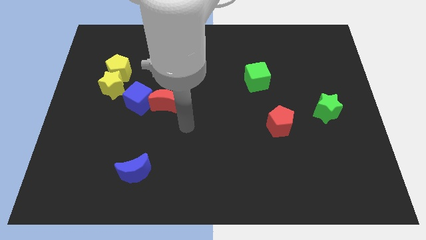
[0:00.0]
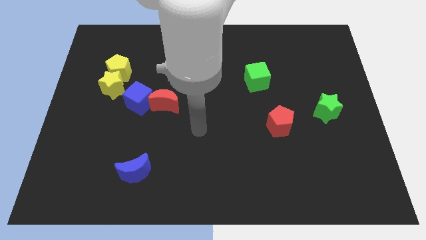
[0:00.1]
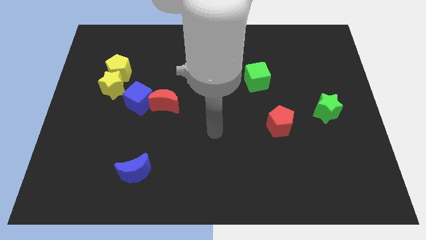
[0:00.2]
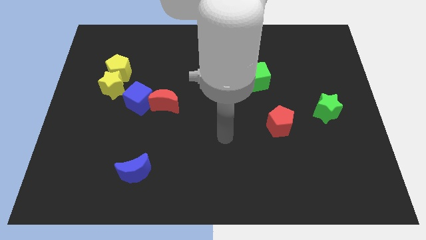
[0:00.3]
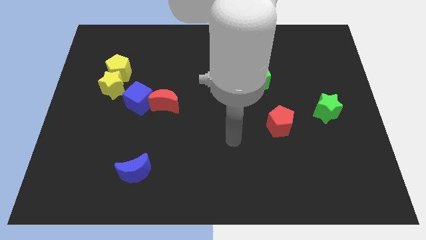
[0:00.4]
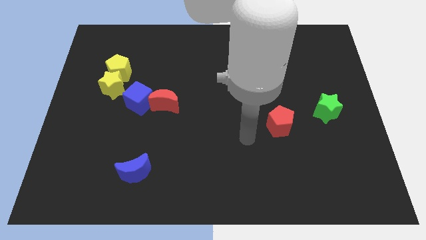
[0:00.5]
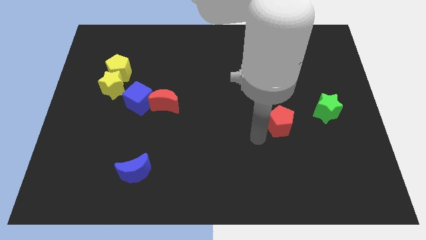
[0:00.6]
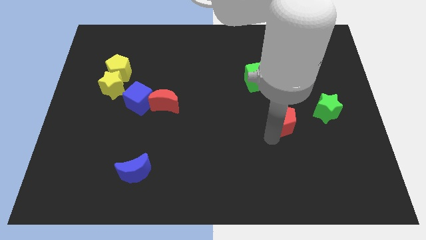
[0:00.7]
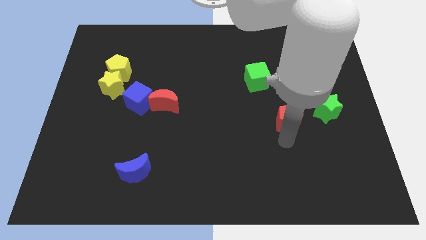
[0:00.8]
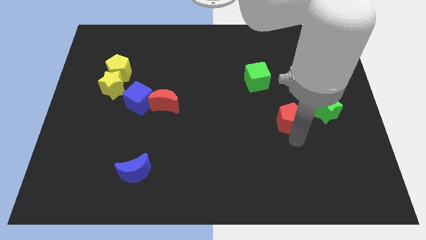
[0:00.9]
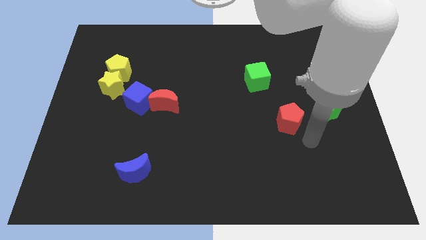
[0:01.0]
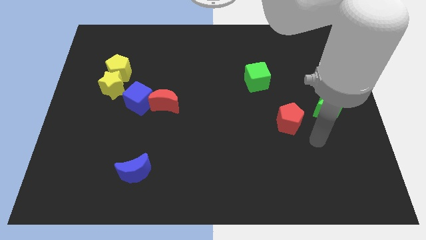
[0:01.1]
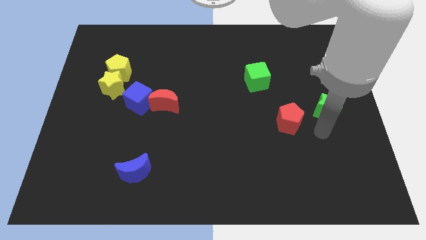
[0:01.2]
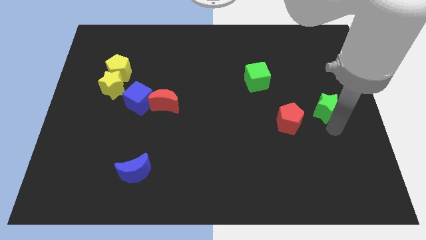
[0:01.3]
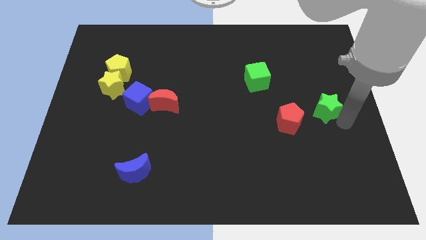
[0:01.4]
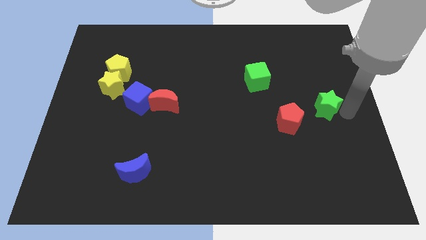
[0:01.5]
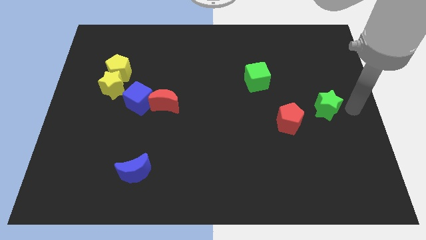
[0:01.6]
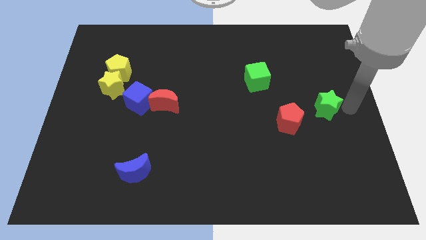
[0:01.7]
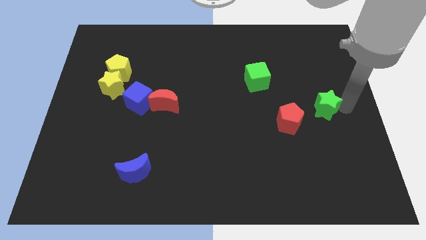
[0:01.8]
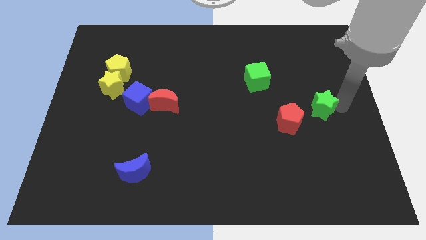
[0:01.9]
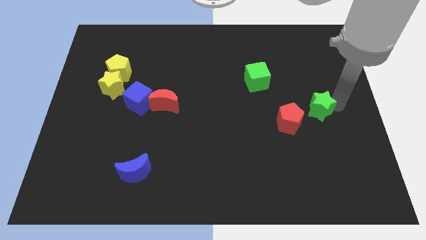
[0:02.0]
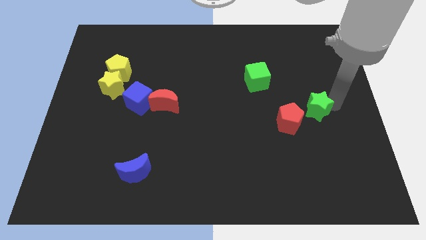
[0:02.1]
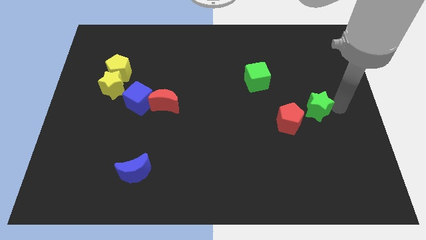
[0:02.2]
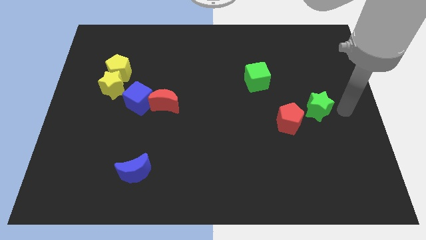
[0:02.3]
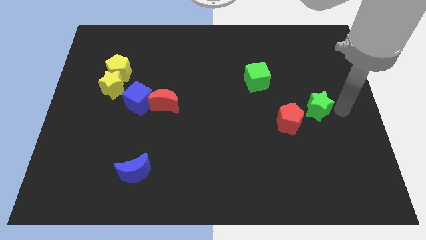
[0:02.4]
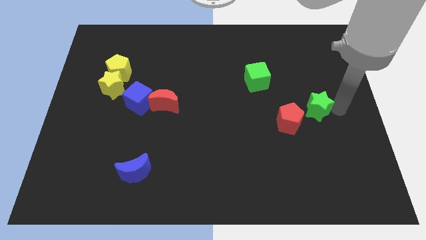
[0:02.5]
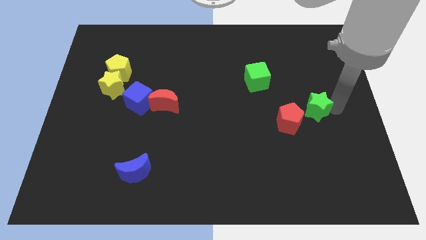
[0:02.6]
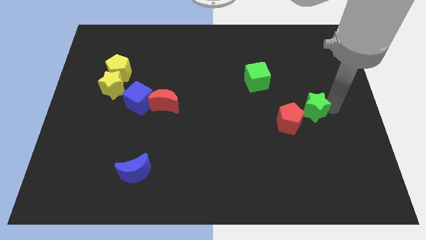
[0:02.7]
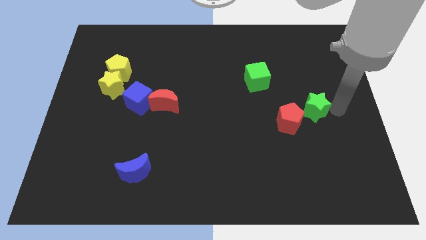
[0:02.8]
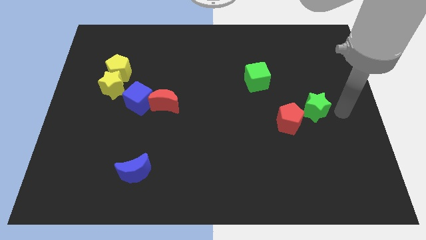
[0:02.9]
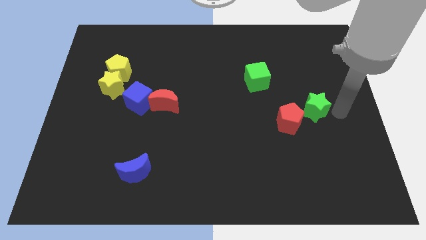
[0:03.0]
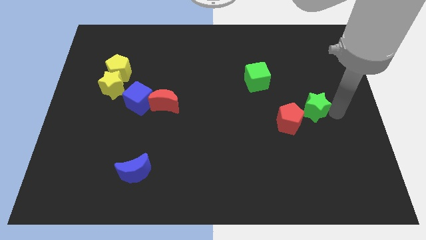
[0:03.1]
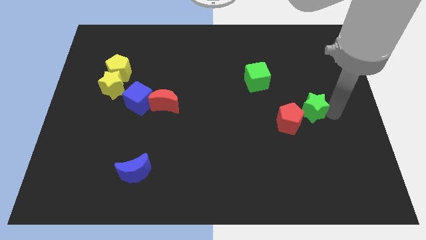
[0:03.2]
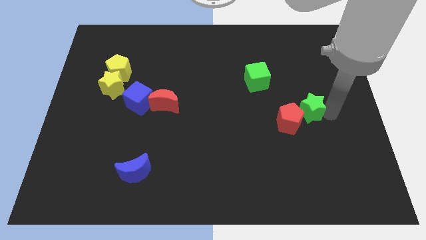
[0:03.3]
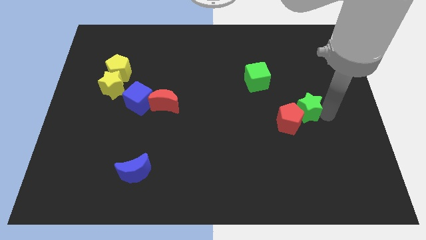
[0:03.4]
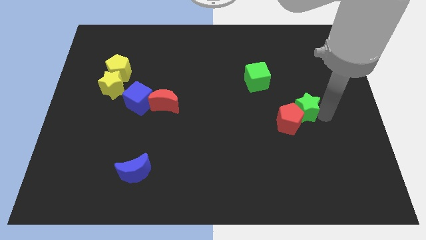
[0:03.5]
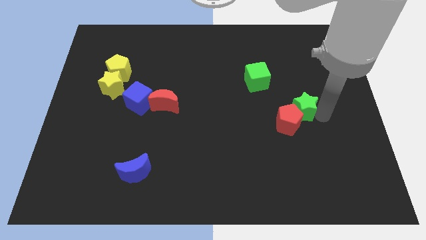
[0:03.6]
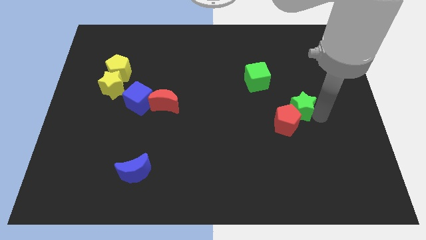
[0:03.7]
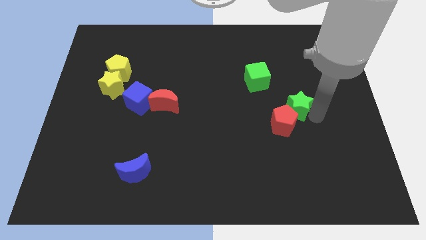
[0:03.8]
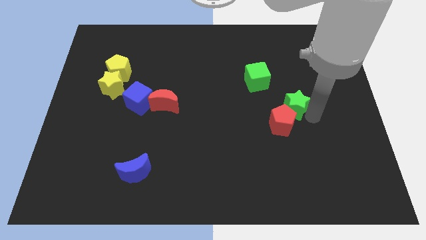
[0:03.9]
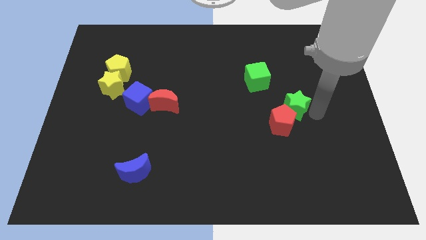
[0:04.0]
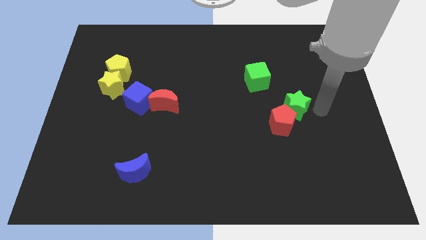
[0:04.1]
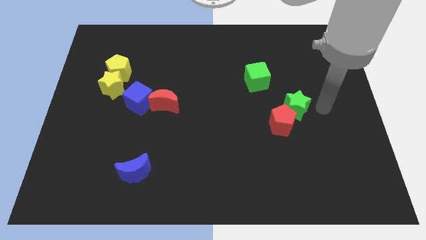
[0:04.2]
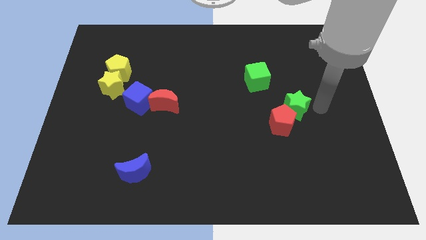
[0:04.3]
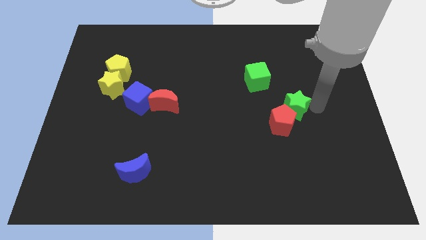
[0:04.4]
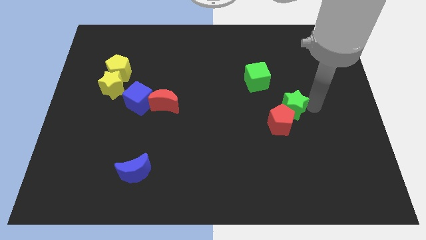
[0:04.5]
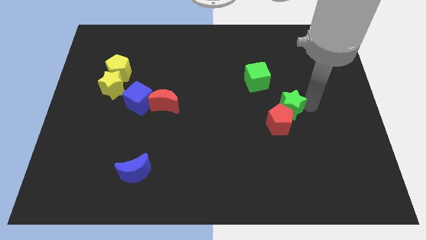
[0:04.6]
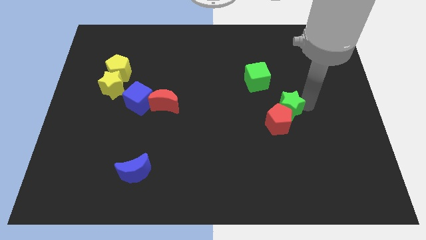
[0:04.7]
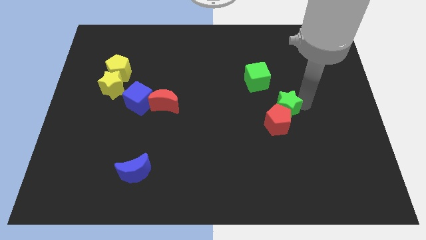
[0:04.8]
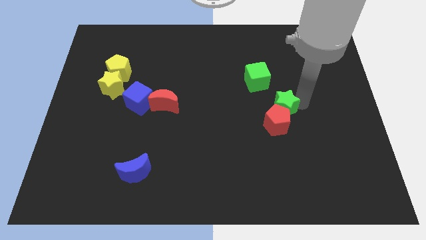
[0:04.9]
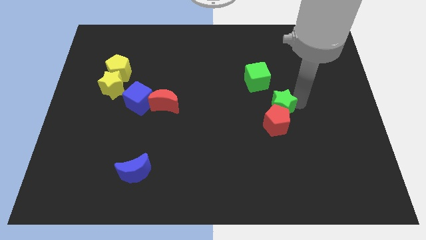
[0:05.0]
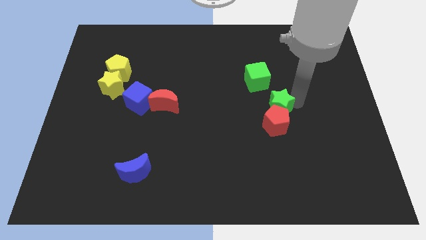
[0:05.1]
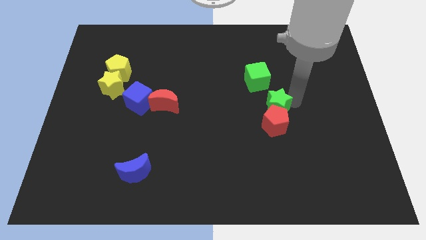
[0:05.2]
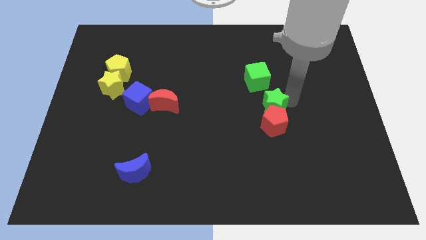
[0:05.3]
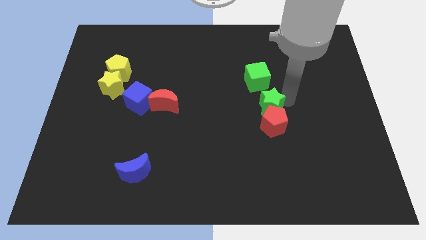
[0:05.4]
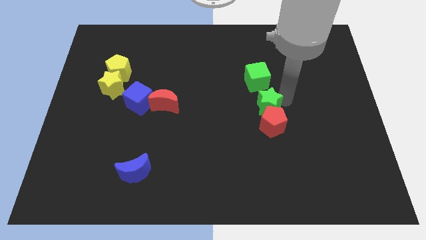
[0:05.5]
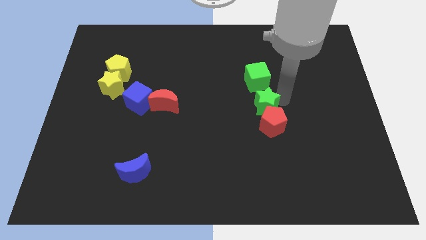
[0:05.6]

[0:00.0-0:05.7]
push the green star to the middle of the board

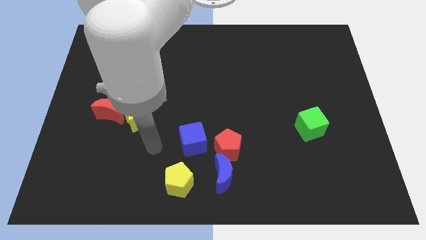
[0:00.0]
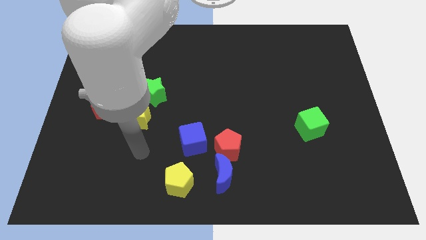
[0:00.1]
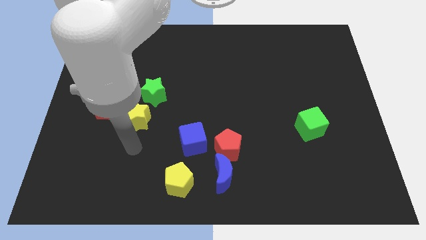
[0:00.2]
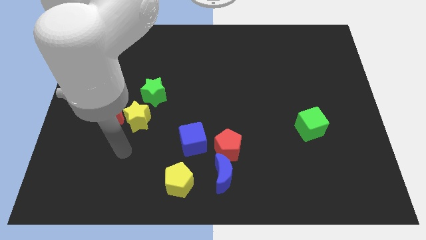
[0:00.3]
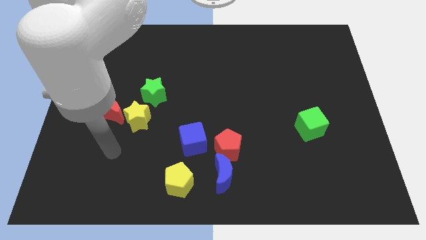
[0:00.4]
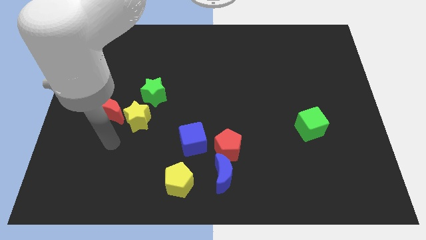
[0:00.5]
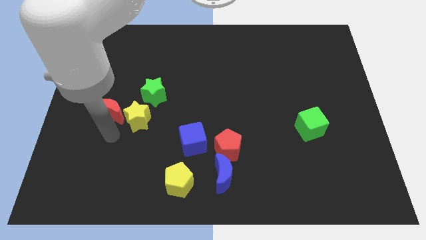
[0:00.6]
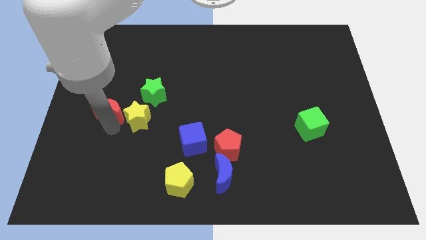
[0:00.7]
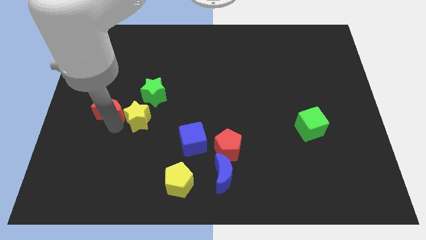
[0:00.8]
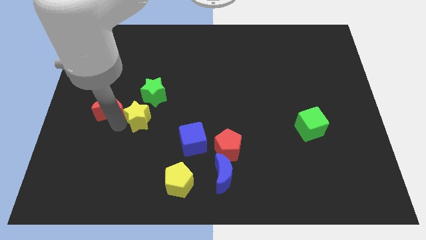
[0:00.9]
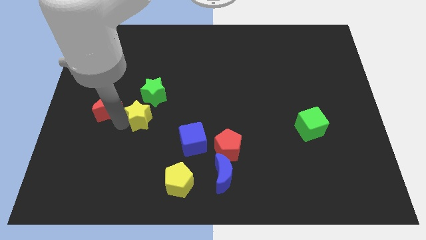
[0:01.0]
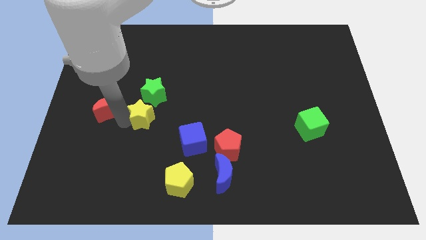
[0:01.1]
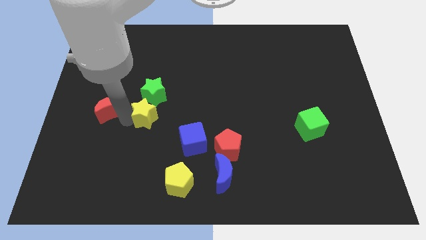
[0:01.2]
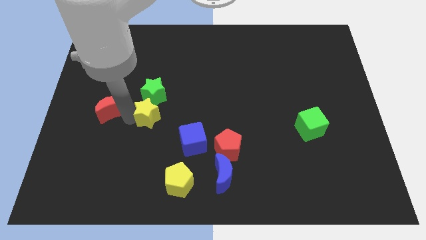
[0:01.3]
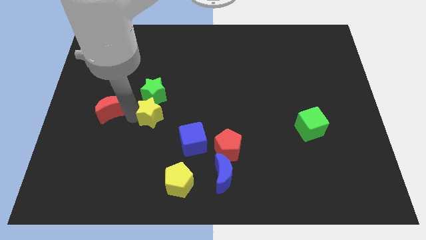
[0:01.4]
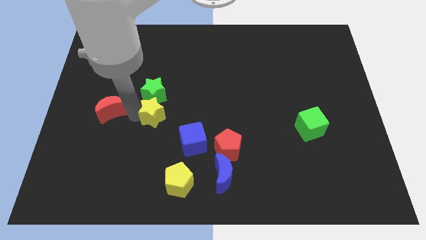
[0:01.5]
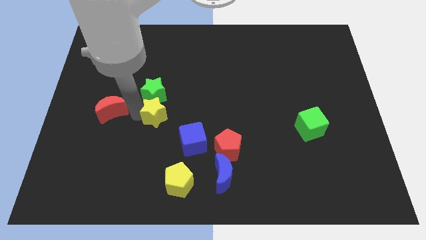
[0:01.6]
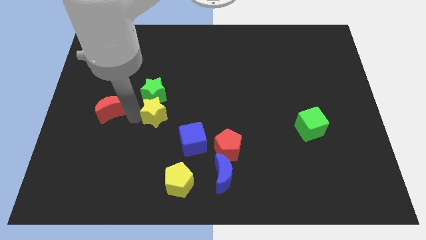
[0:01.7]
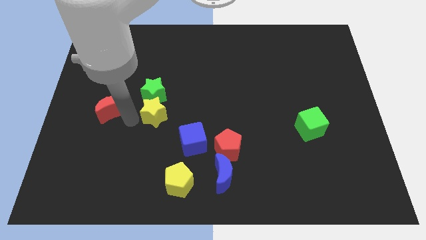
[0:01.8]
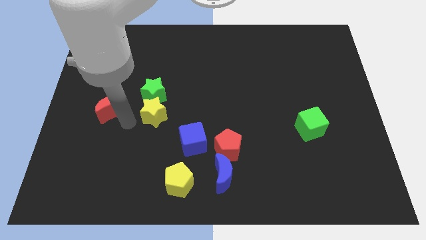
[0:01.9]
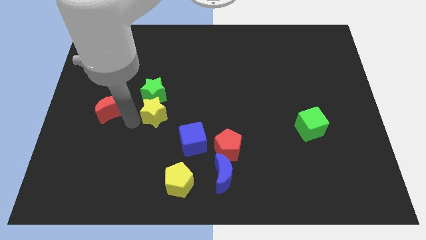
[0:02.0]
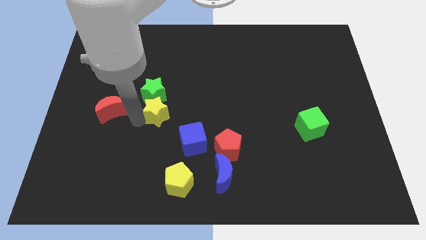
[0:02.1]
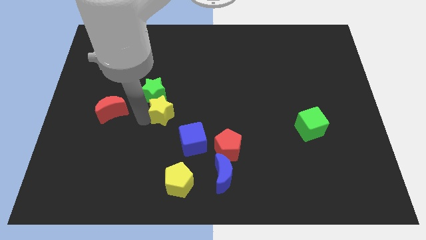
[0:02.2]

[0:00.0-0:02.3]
push the yellow star to the middle
